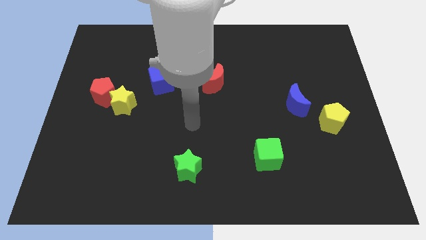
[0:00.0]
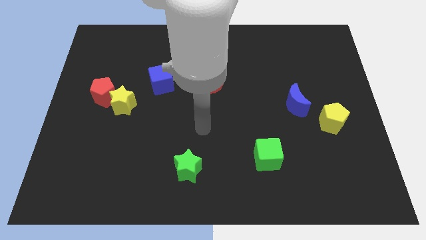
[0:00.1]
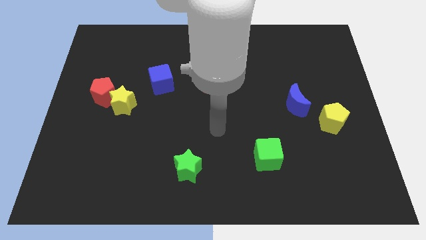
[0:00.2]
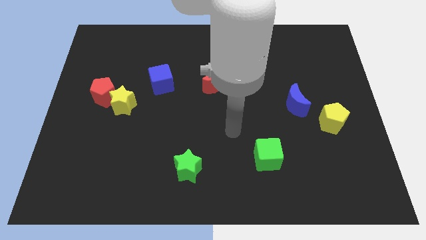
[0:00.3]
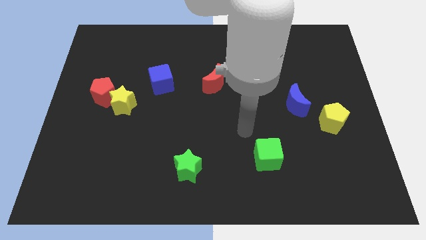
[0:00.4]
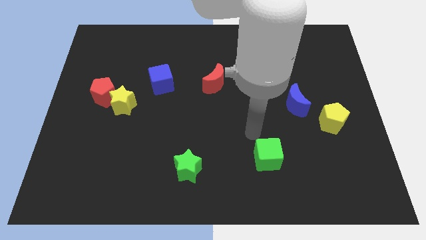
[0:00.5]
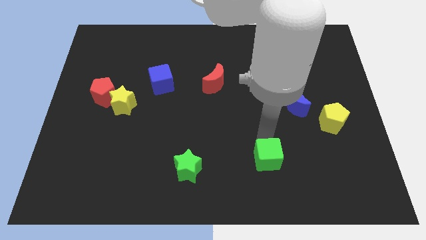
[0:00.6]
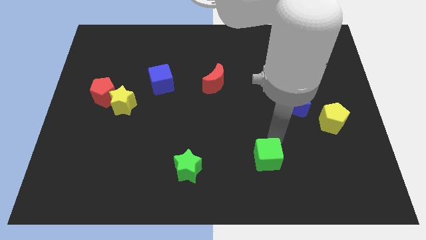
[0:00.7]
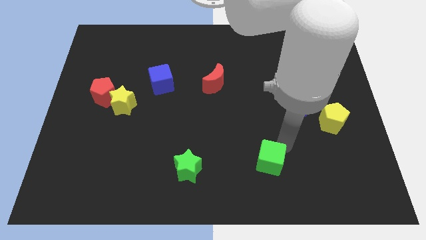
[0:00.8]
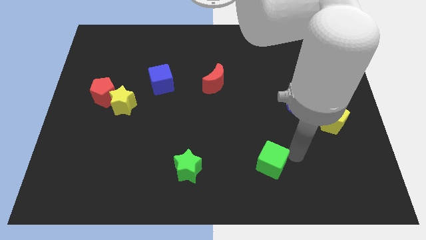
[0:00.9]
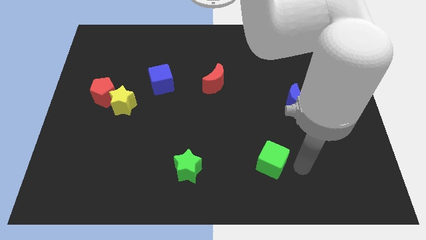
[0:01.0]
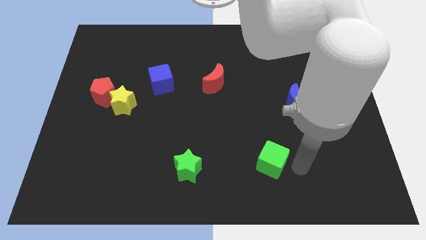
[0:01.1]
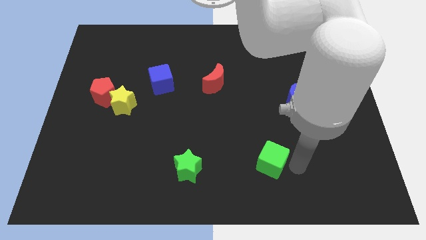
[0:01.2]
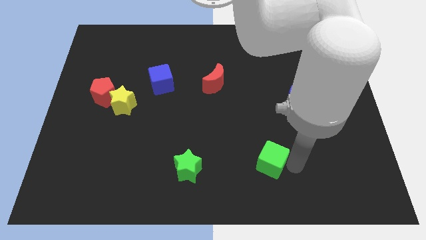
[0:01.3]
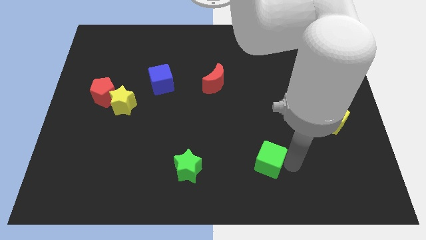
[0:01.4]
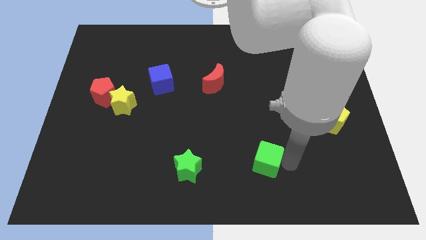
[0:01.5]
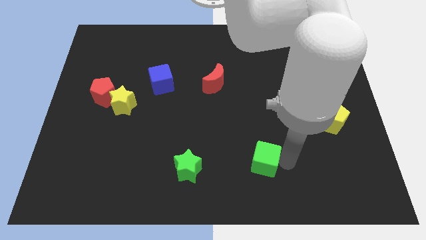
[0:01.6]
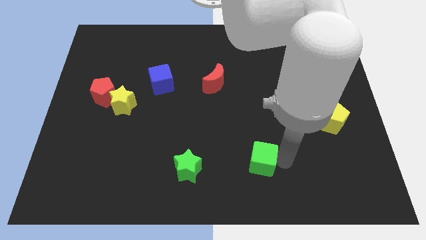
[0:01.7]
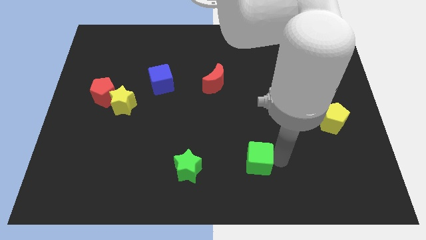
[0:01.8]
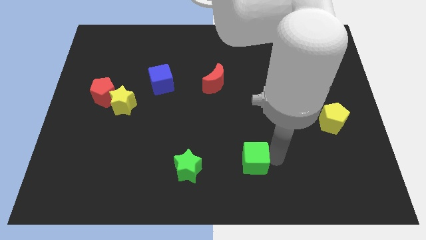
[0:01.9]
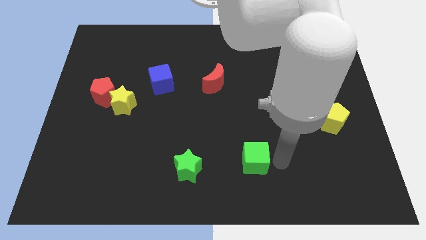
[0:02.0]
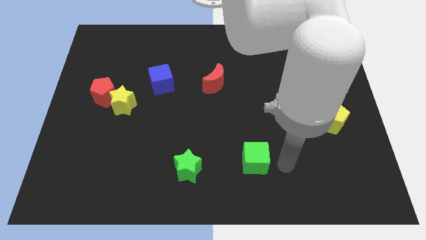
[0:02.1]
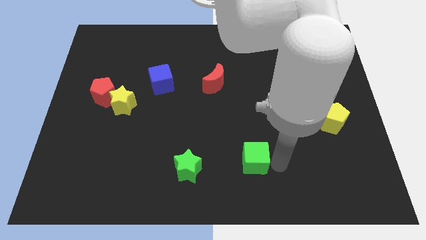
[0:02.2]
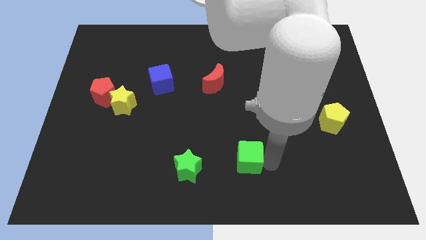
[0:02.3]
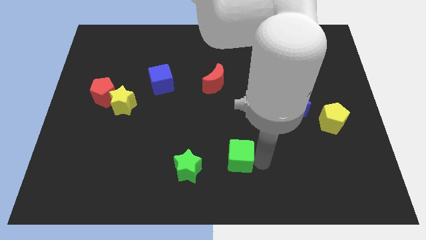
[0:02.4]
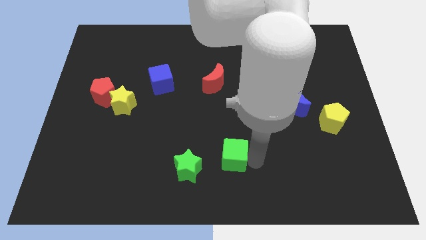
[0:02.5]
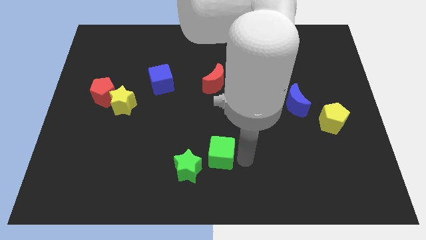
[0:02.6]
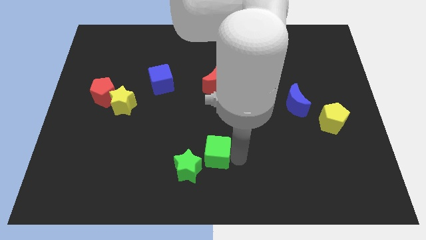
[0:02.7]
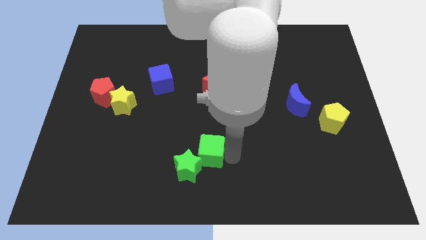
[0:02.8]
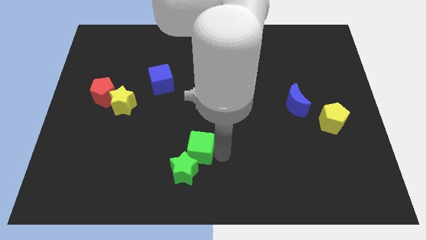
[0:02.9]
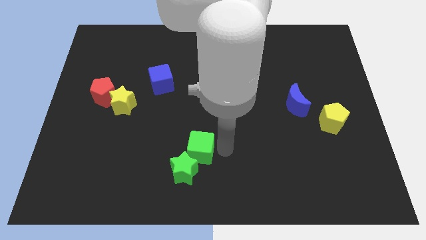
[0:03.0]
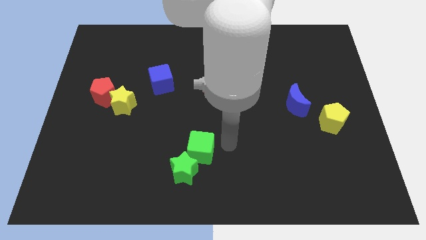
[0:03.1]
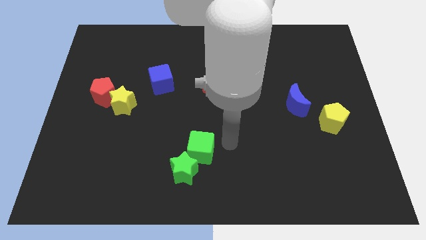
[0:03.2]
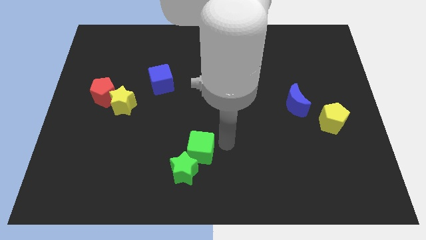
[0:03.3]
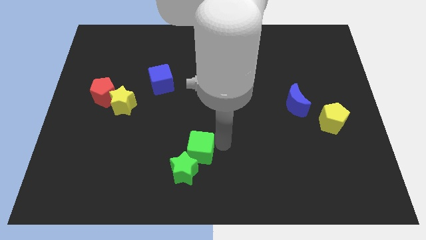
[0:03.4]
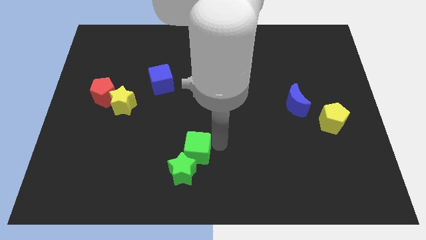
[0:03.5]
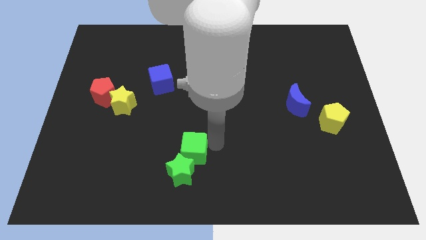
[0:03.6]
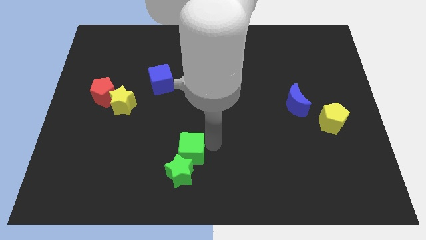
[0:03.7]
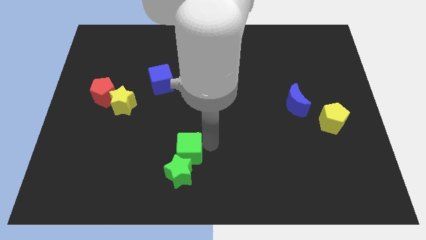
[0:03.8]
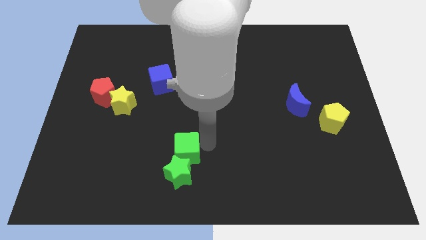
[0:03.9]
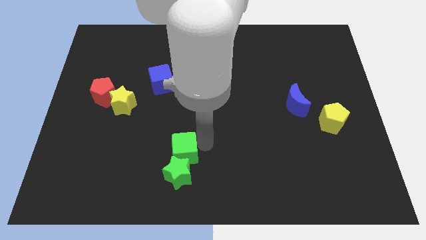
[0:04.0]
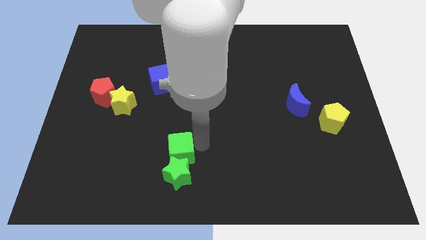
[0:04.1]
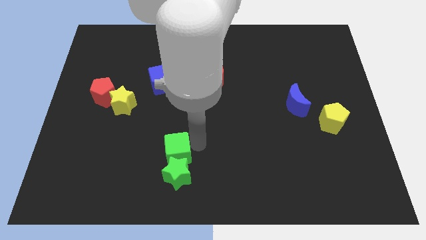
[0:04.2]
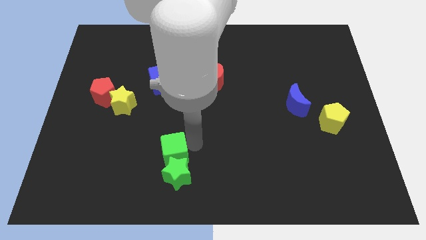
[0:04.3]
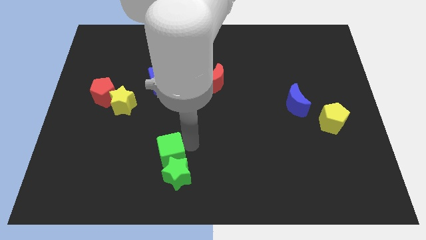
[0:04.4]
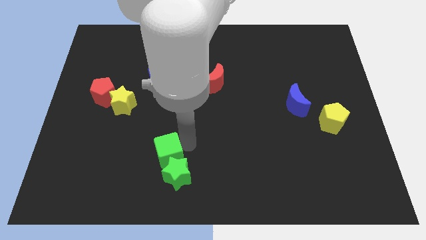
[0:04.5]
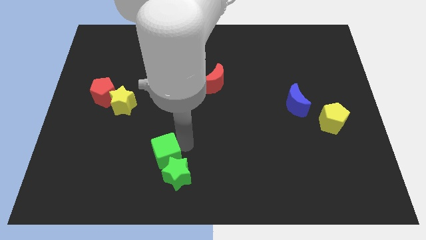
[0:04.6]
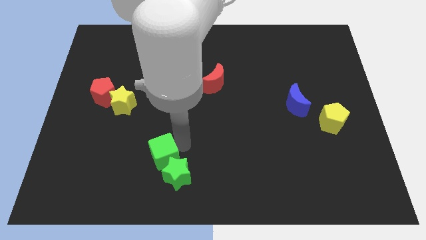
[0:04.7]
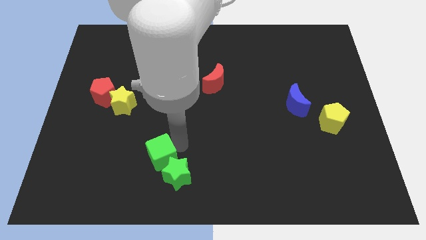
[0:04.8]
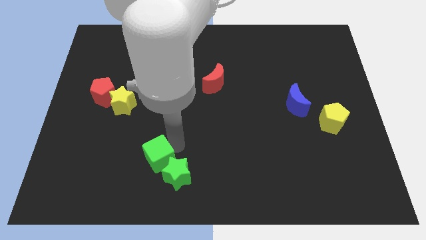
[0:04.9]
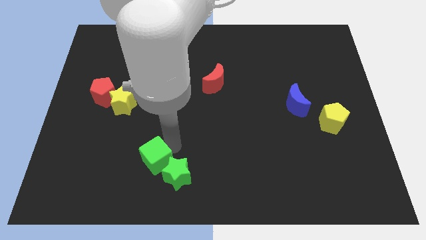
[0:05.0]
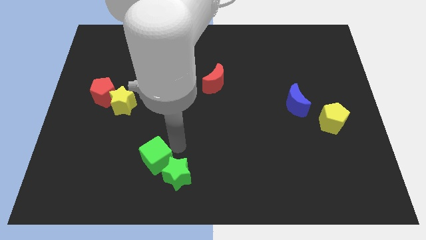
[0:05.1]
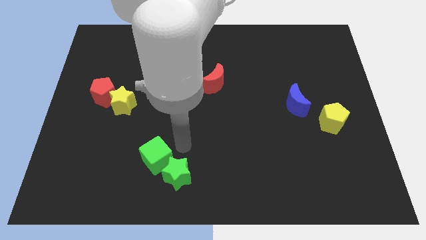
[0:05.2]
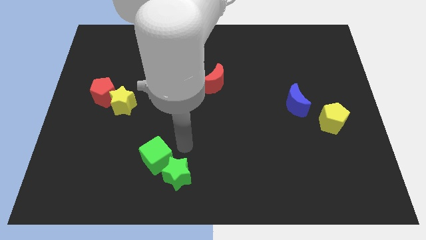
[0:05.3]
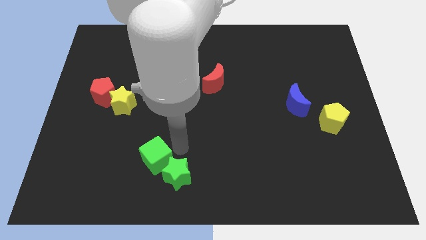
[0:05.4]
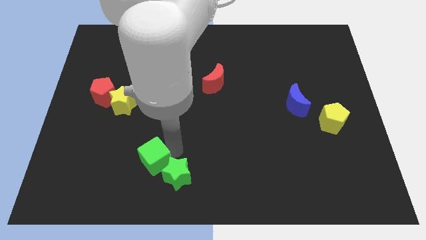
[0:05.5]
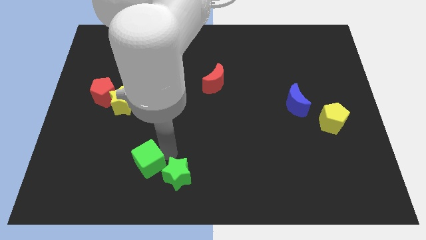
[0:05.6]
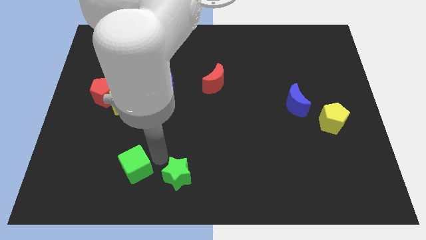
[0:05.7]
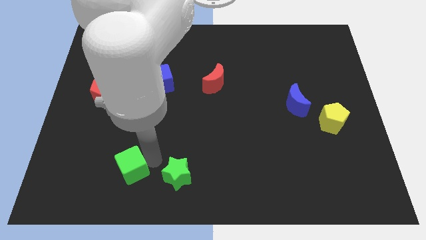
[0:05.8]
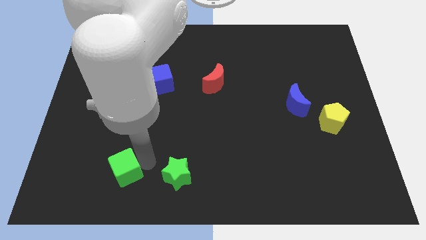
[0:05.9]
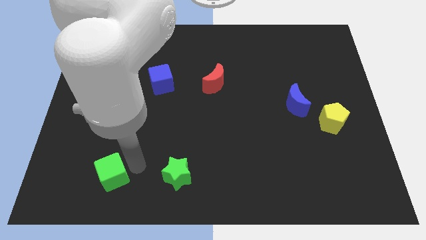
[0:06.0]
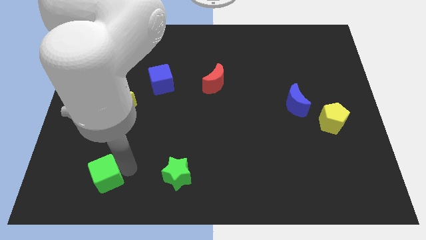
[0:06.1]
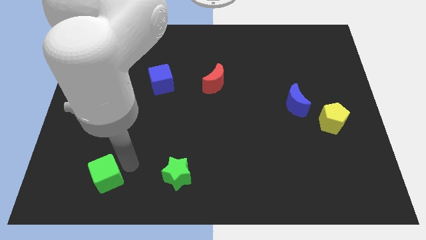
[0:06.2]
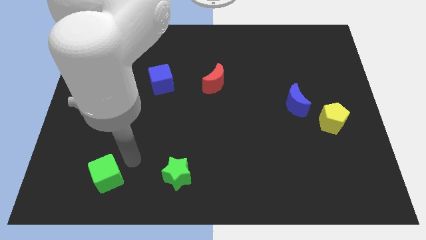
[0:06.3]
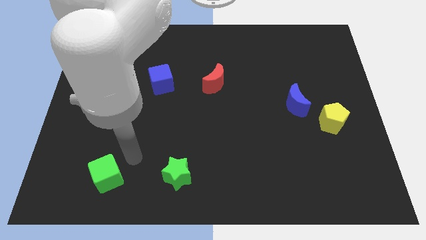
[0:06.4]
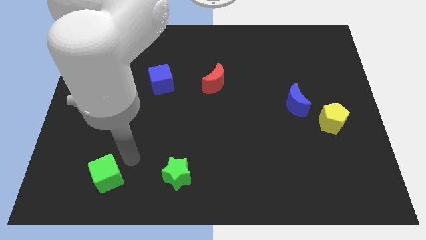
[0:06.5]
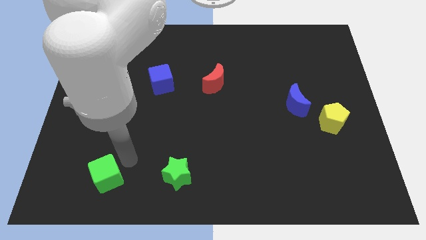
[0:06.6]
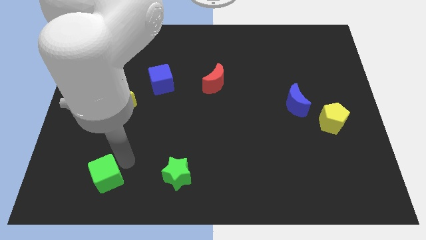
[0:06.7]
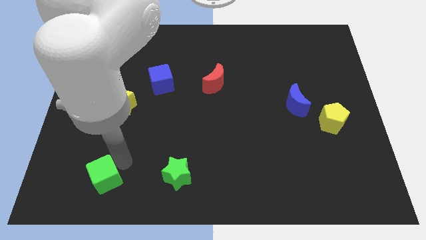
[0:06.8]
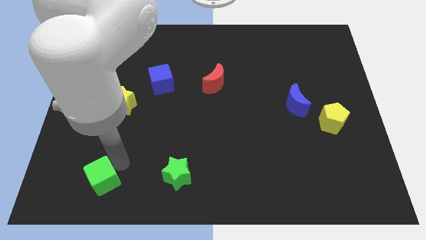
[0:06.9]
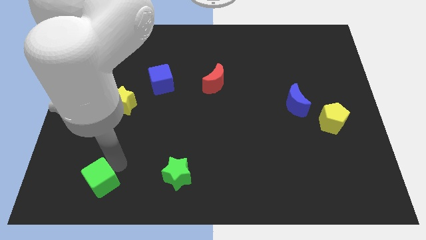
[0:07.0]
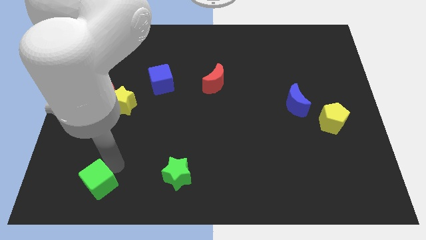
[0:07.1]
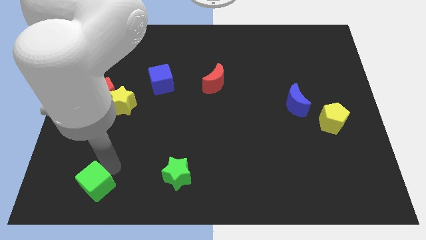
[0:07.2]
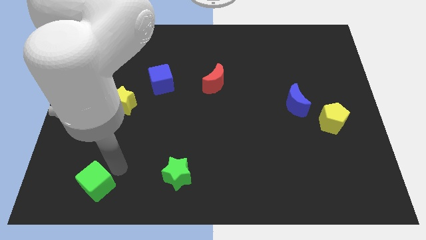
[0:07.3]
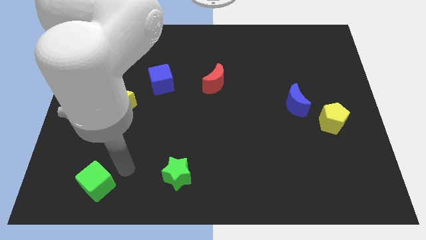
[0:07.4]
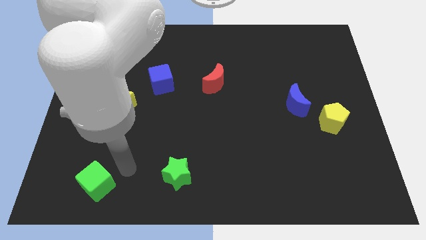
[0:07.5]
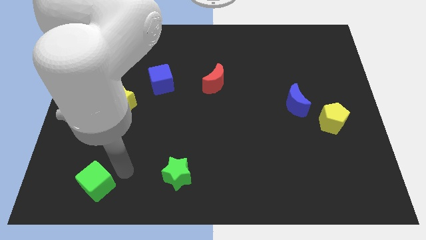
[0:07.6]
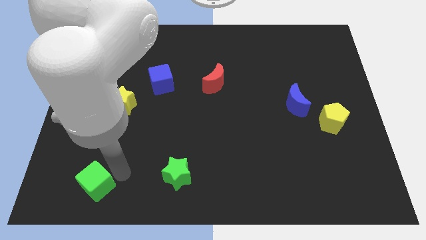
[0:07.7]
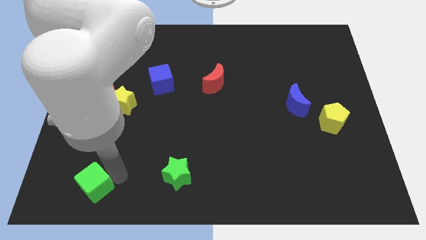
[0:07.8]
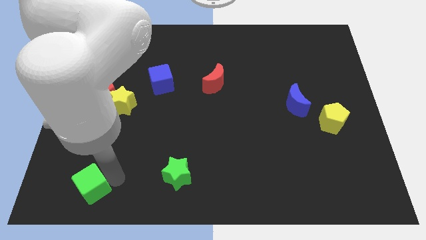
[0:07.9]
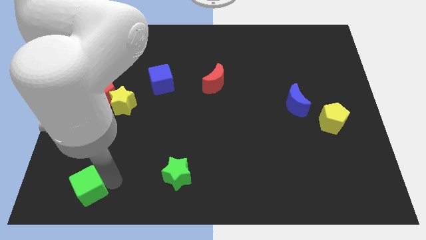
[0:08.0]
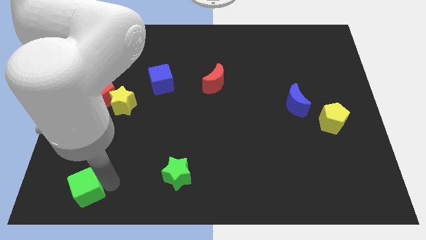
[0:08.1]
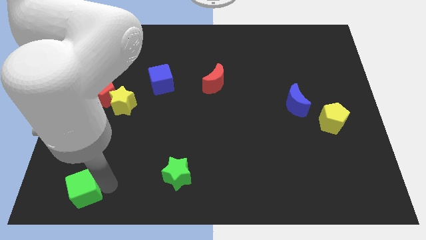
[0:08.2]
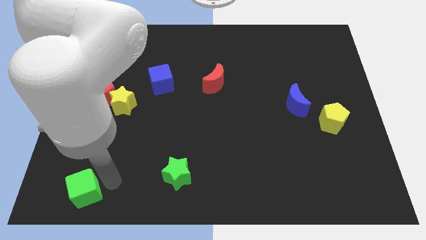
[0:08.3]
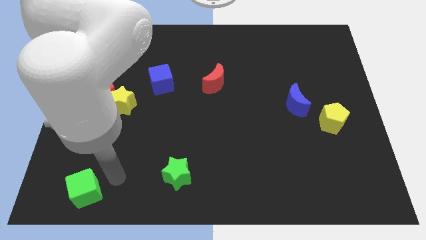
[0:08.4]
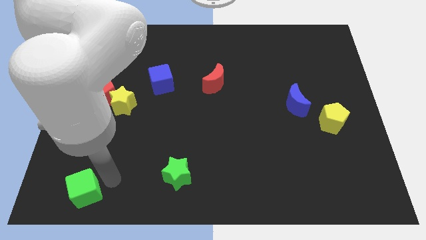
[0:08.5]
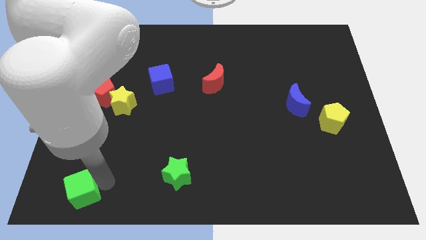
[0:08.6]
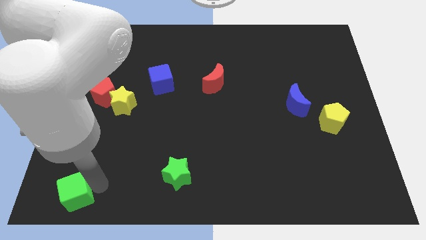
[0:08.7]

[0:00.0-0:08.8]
push the green cube to the bottom left of the board
